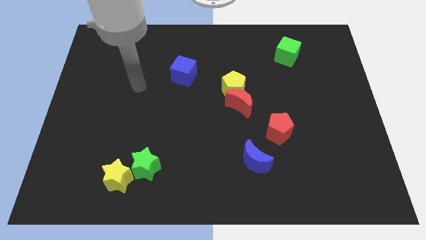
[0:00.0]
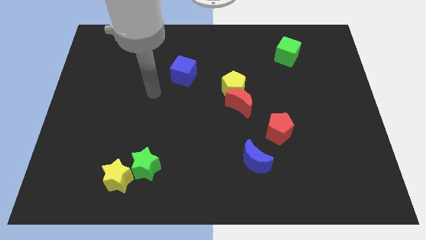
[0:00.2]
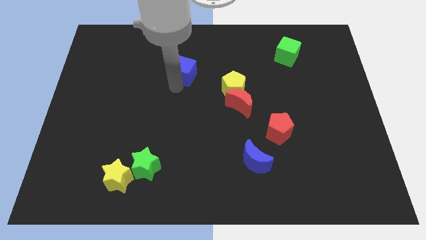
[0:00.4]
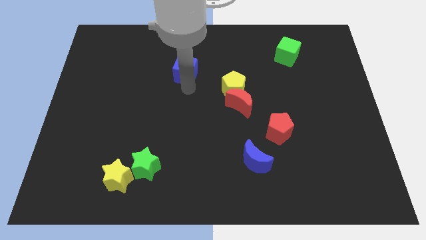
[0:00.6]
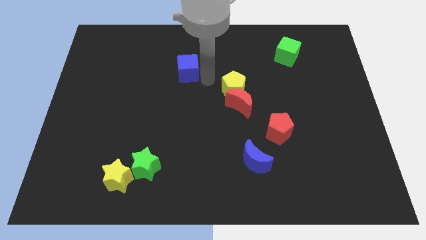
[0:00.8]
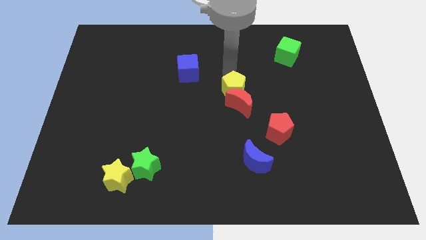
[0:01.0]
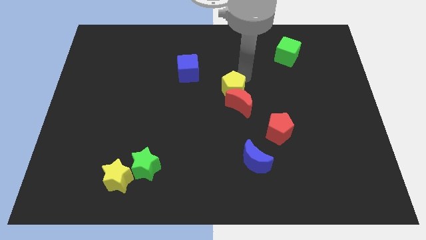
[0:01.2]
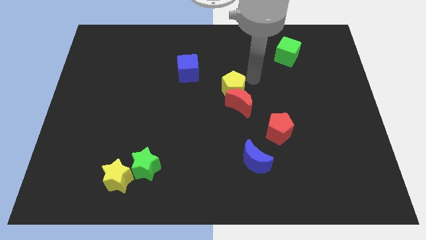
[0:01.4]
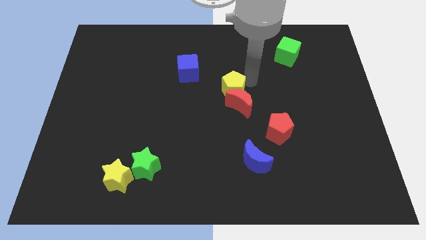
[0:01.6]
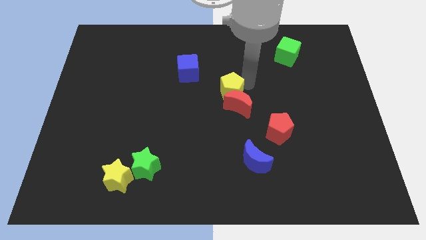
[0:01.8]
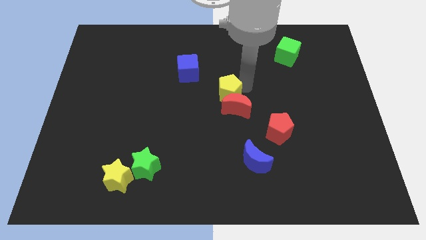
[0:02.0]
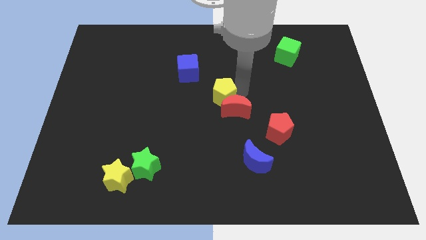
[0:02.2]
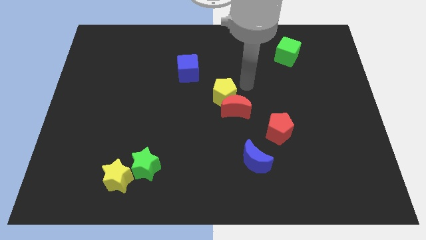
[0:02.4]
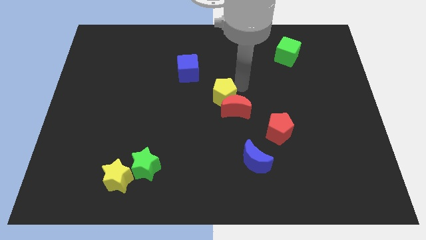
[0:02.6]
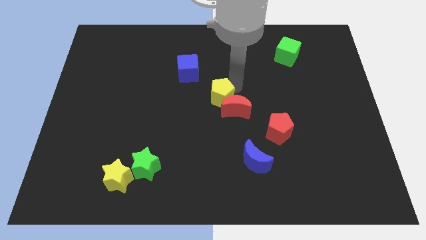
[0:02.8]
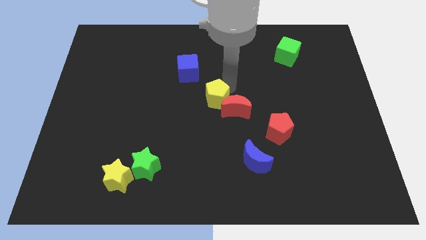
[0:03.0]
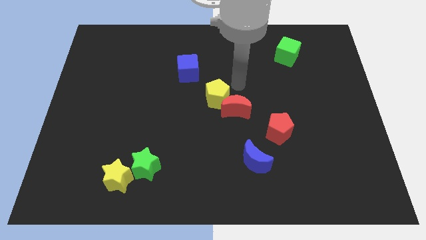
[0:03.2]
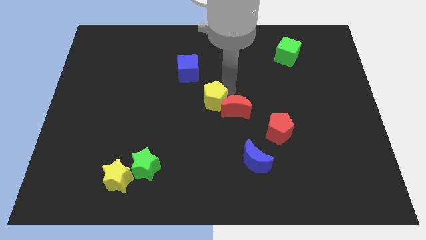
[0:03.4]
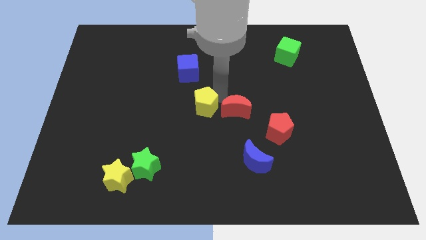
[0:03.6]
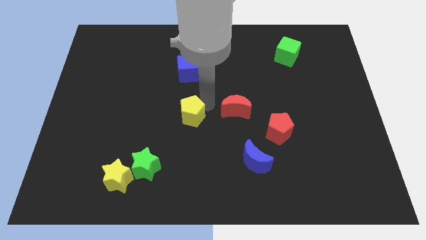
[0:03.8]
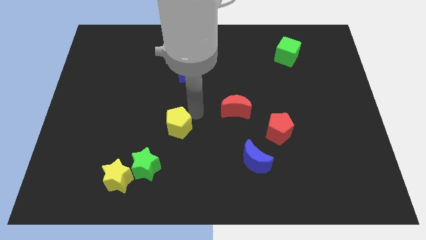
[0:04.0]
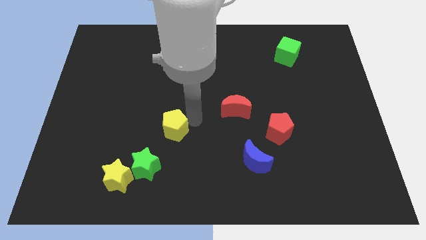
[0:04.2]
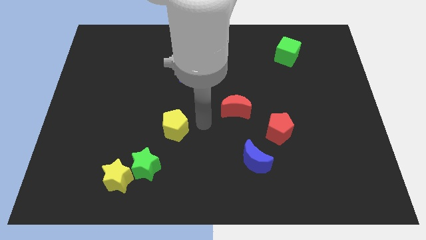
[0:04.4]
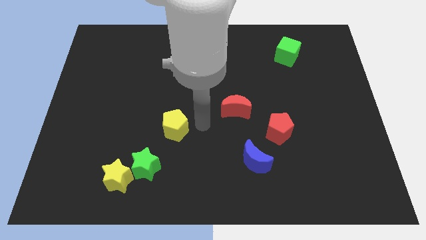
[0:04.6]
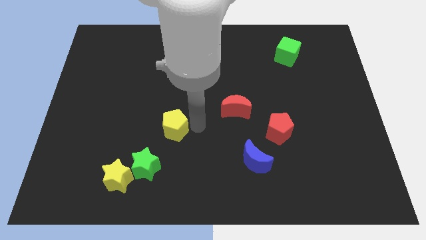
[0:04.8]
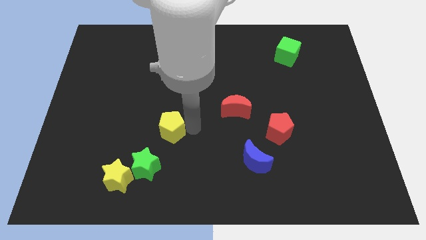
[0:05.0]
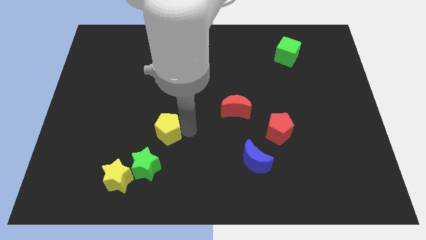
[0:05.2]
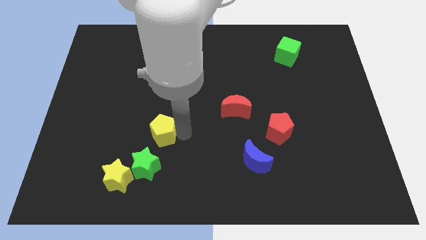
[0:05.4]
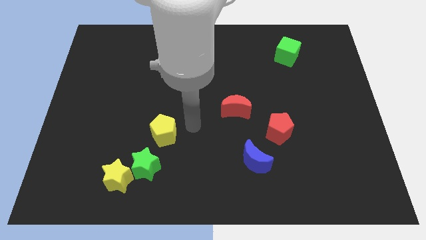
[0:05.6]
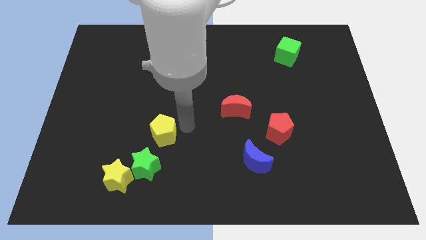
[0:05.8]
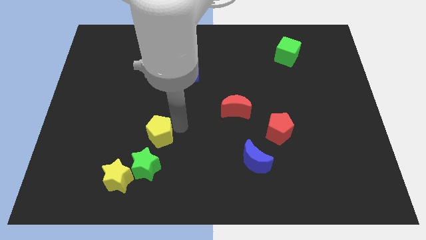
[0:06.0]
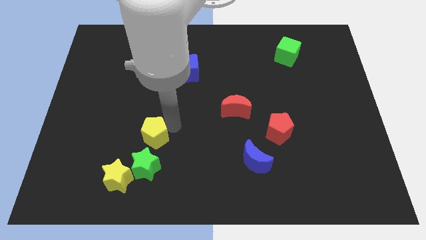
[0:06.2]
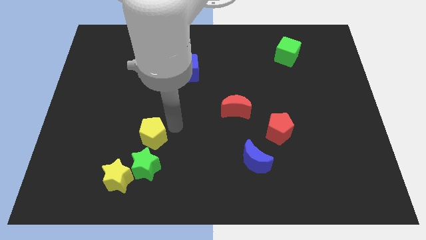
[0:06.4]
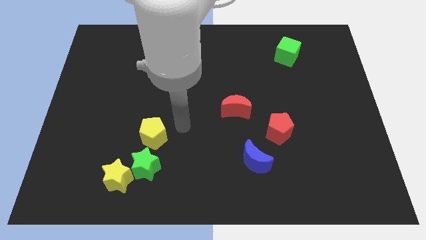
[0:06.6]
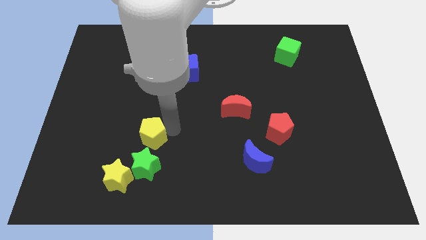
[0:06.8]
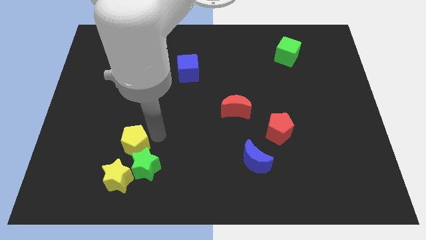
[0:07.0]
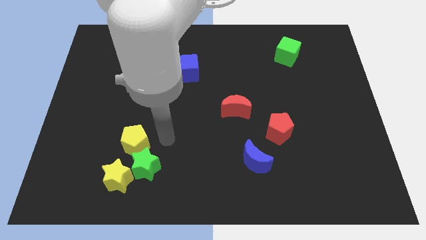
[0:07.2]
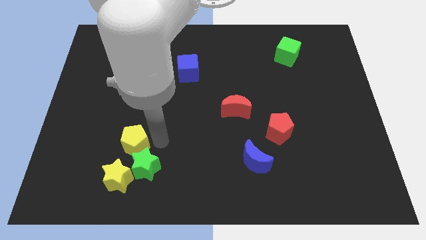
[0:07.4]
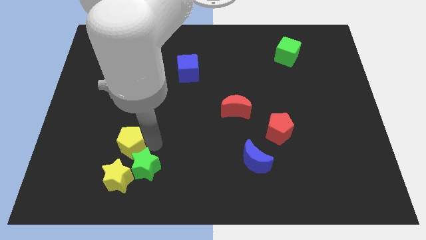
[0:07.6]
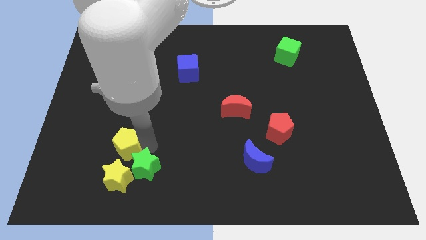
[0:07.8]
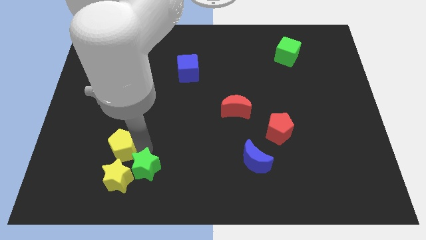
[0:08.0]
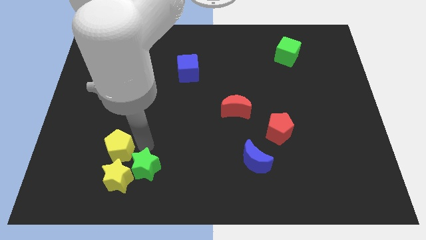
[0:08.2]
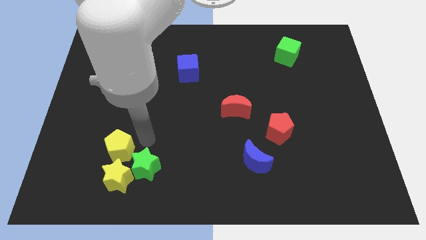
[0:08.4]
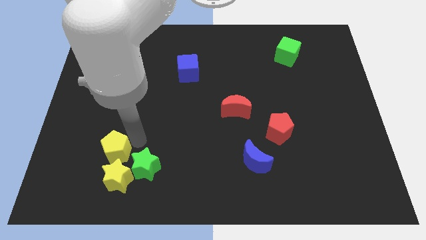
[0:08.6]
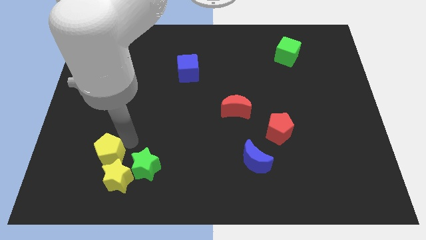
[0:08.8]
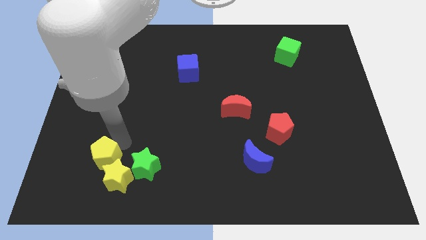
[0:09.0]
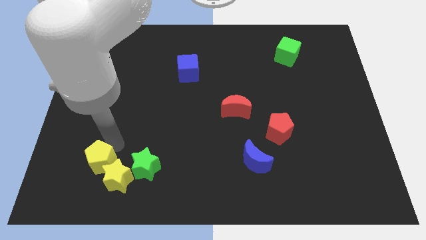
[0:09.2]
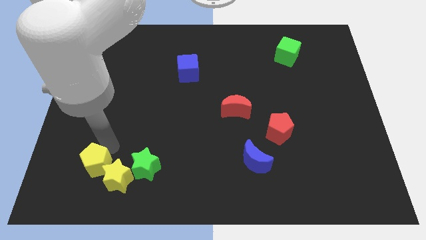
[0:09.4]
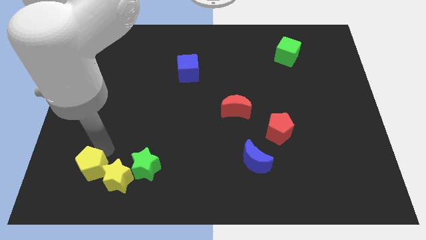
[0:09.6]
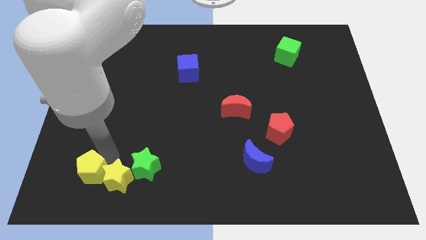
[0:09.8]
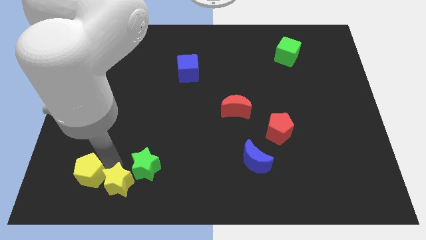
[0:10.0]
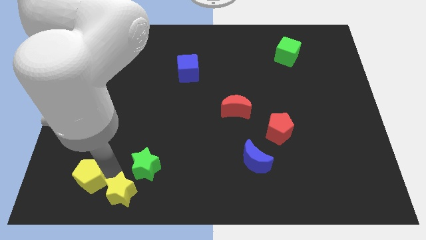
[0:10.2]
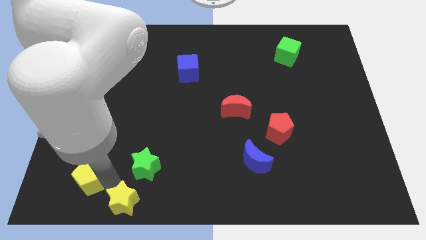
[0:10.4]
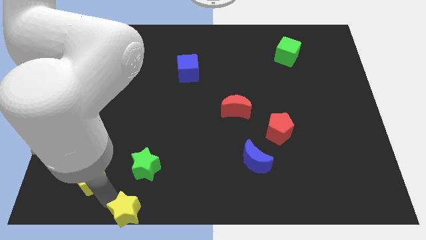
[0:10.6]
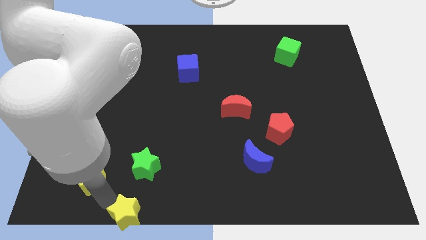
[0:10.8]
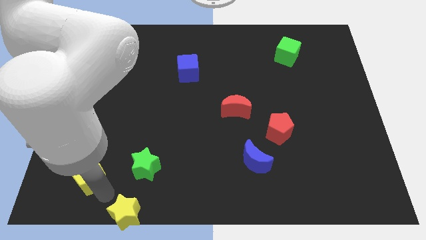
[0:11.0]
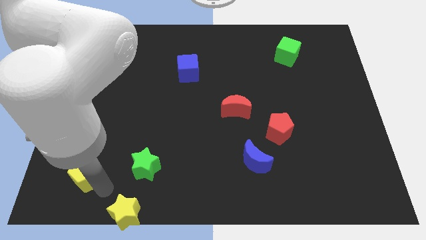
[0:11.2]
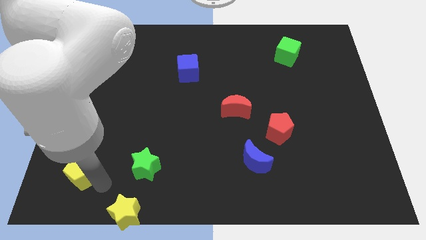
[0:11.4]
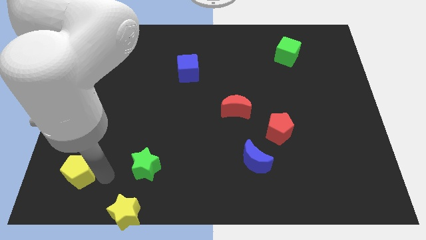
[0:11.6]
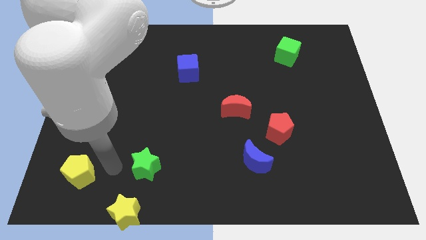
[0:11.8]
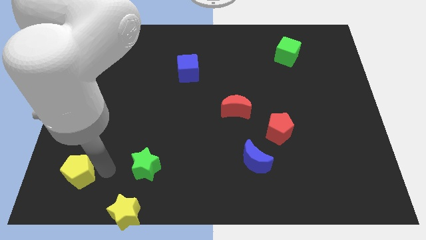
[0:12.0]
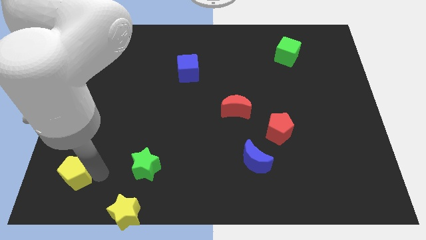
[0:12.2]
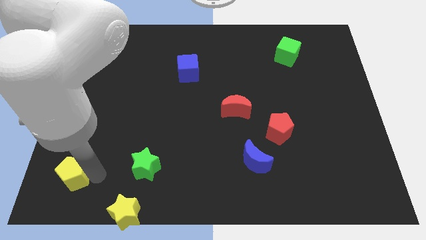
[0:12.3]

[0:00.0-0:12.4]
push the yellow pentagon to the lower left corner
